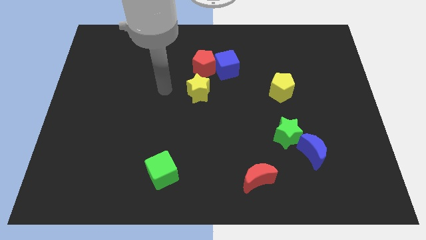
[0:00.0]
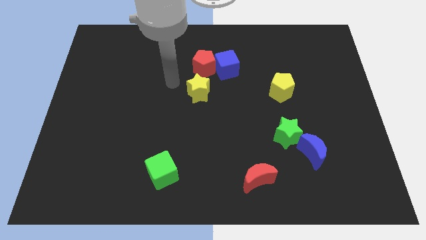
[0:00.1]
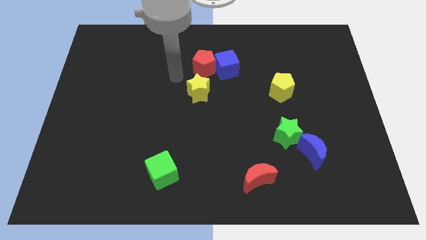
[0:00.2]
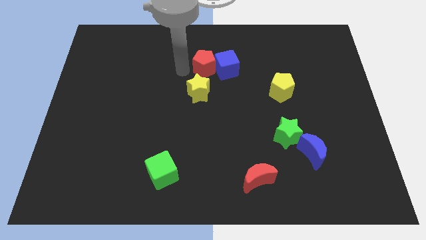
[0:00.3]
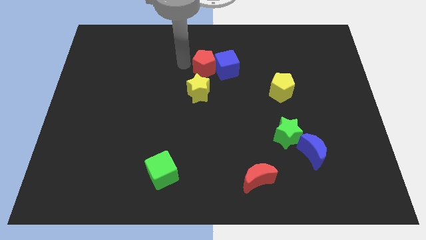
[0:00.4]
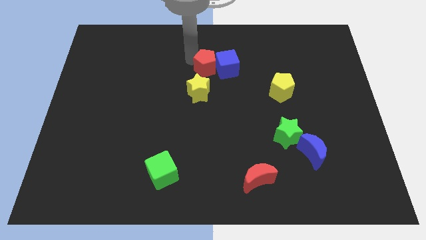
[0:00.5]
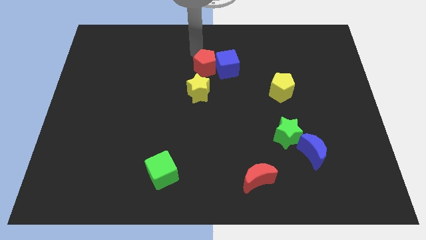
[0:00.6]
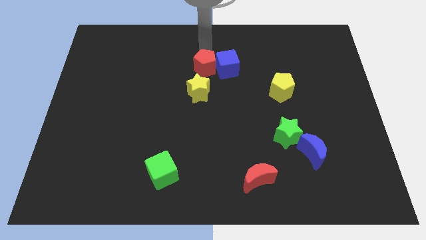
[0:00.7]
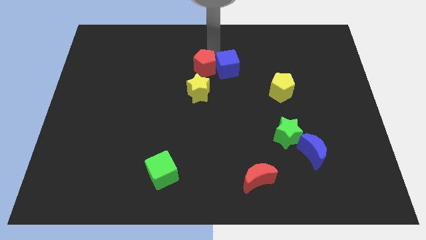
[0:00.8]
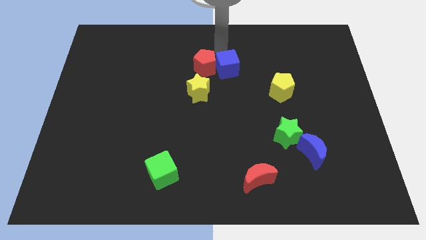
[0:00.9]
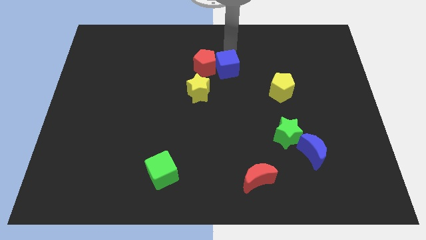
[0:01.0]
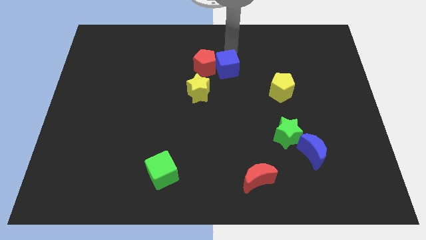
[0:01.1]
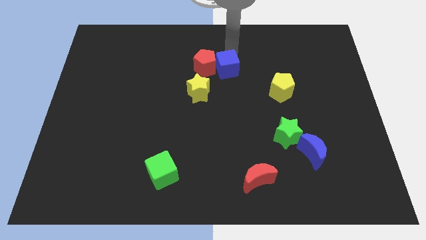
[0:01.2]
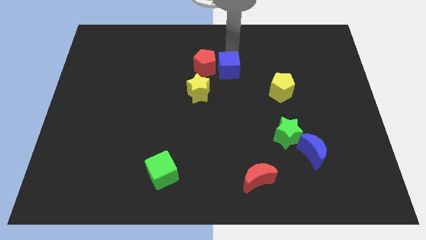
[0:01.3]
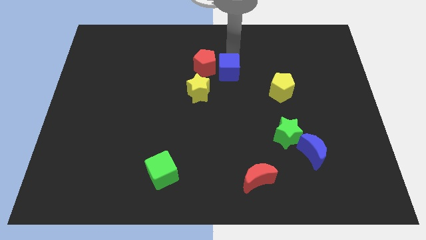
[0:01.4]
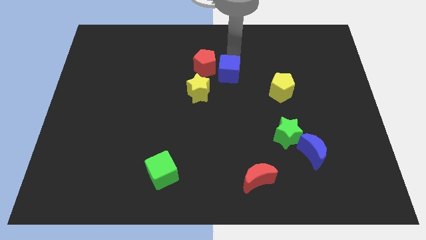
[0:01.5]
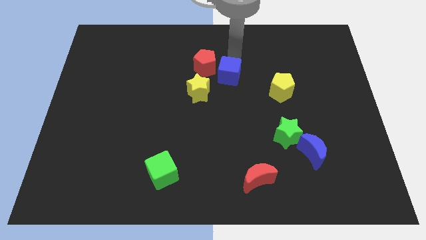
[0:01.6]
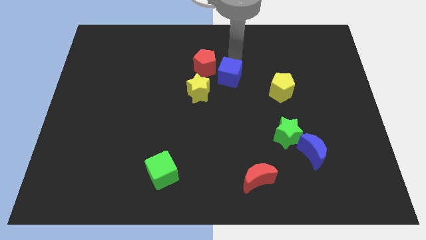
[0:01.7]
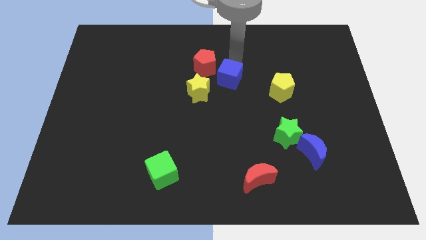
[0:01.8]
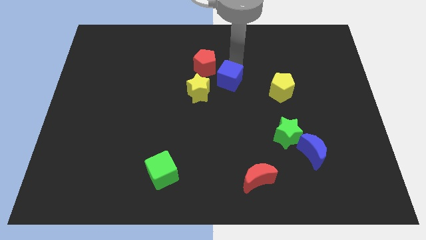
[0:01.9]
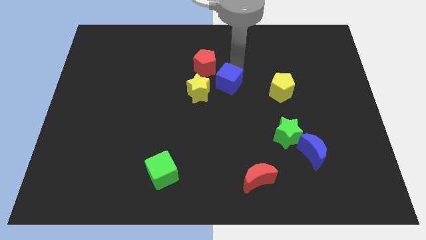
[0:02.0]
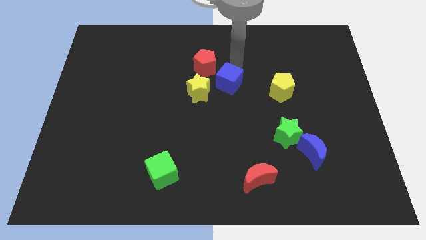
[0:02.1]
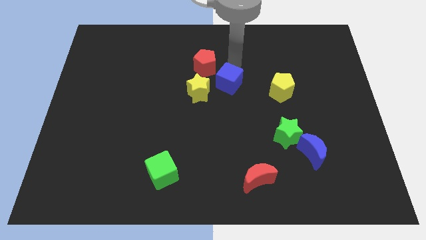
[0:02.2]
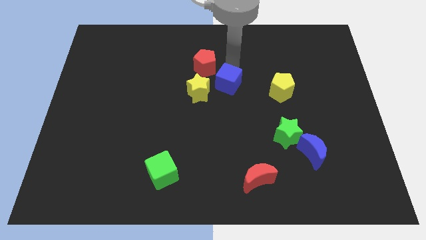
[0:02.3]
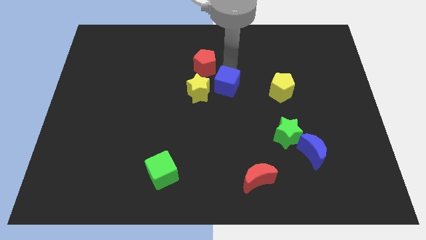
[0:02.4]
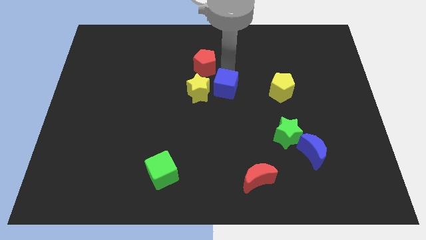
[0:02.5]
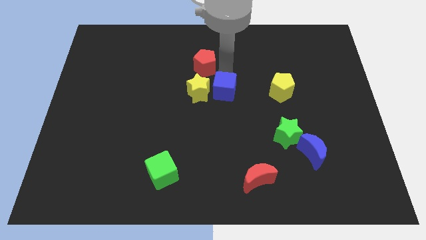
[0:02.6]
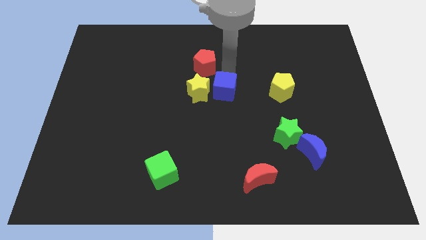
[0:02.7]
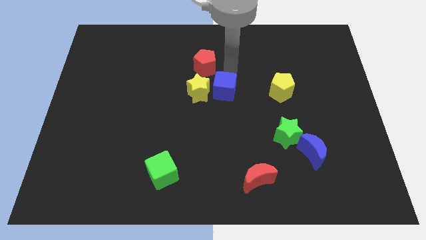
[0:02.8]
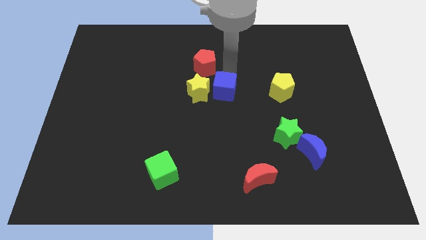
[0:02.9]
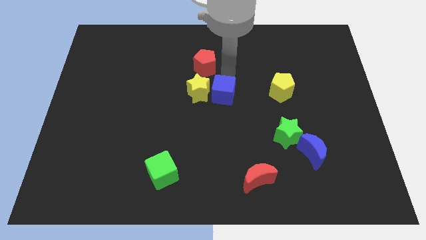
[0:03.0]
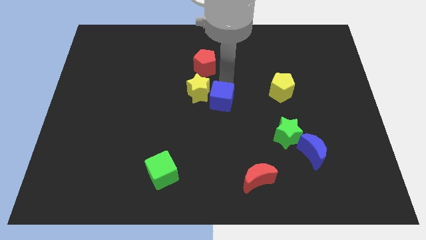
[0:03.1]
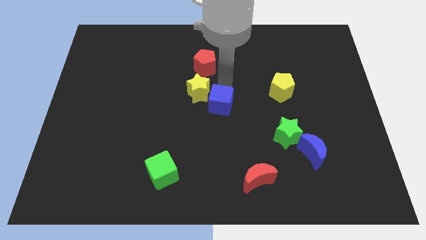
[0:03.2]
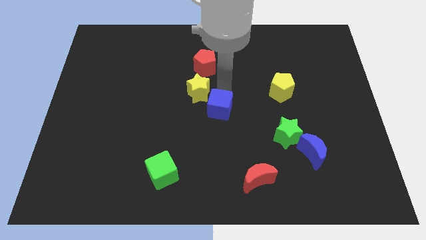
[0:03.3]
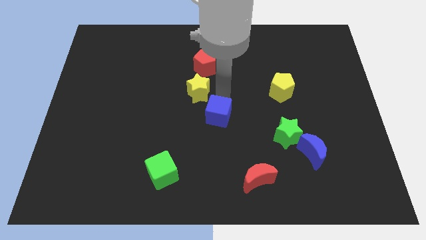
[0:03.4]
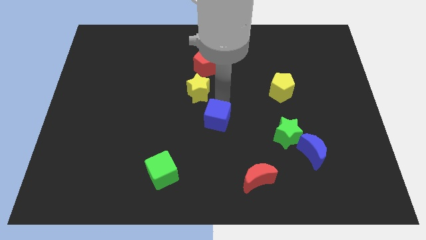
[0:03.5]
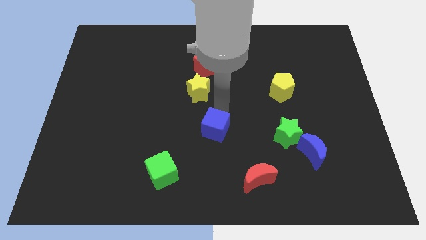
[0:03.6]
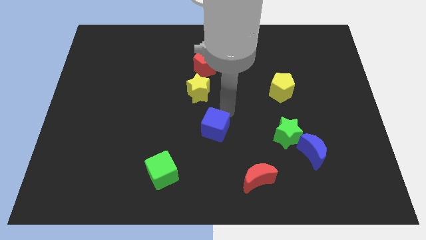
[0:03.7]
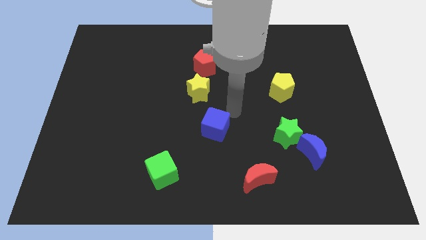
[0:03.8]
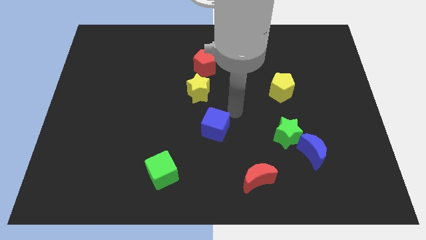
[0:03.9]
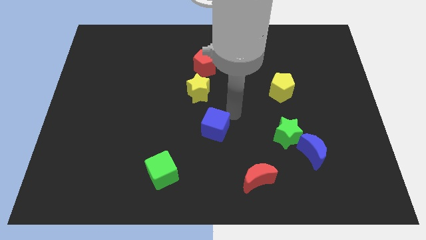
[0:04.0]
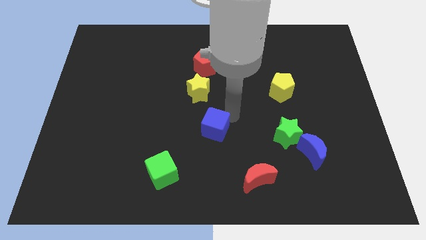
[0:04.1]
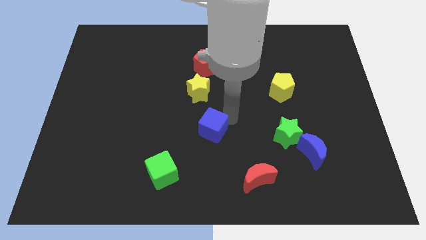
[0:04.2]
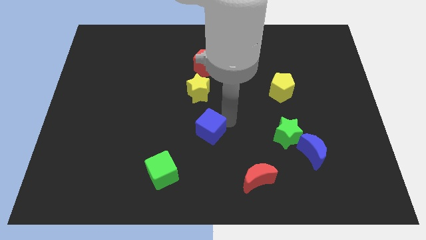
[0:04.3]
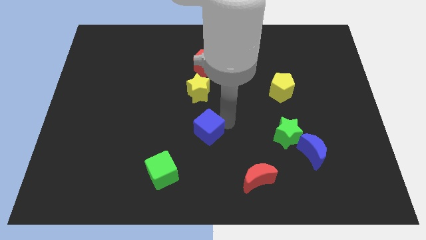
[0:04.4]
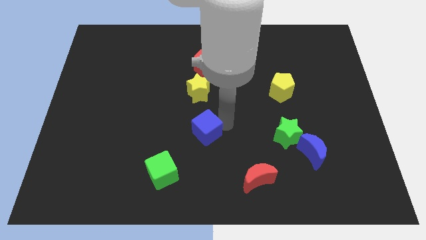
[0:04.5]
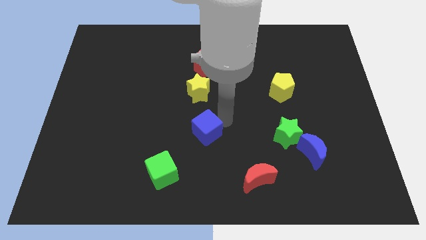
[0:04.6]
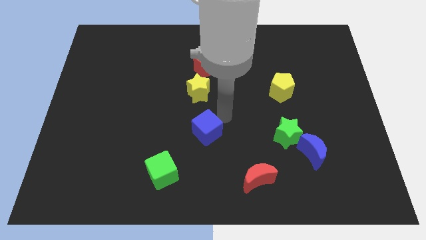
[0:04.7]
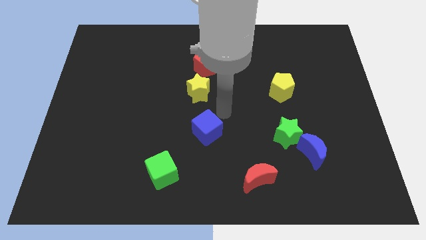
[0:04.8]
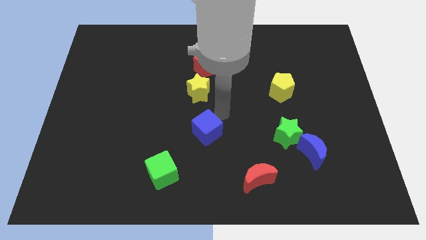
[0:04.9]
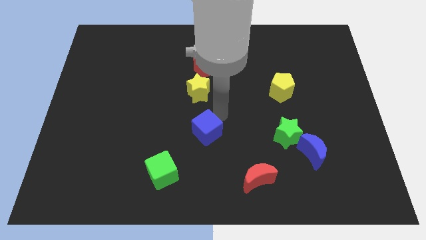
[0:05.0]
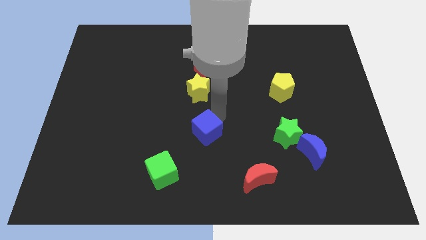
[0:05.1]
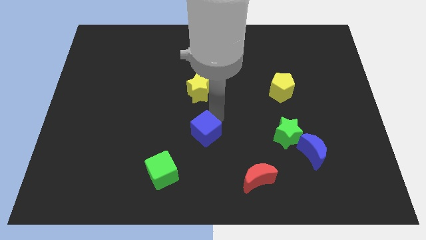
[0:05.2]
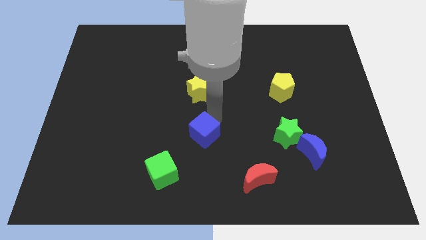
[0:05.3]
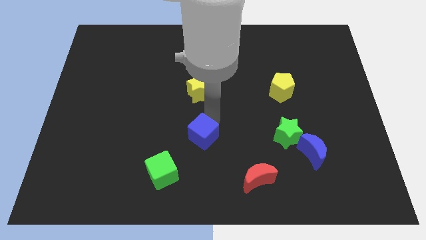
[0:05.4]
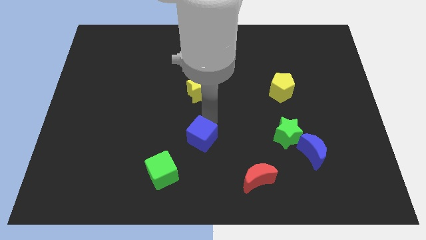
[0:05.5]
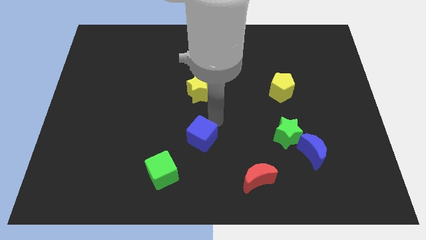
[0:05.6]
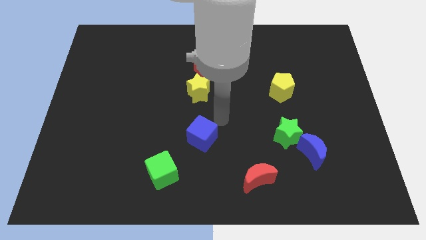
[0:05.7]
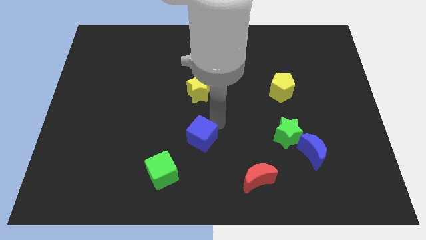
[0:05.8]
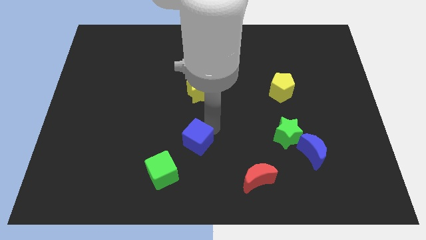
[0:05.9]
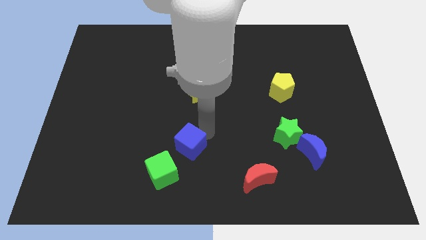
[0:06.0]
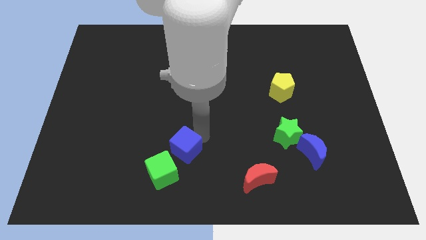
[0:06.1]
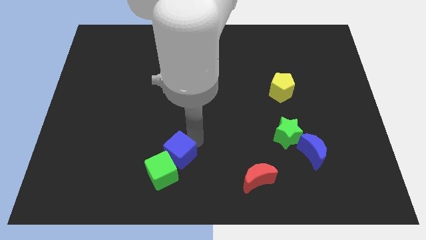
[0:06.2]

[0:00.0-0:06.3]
move the blue cube close to the green cube

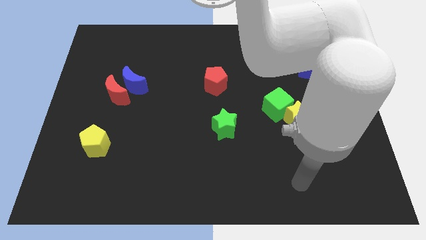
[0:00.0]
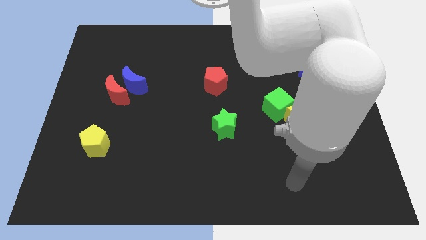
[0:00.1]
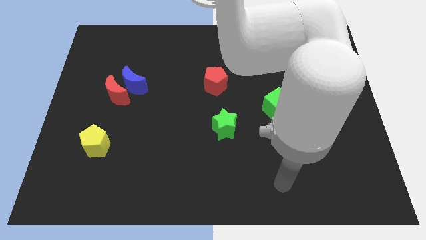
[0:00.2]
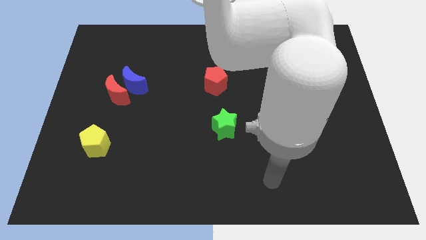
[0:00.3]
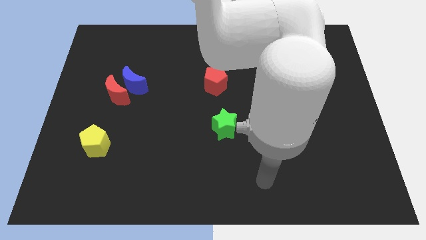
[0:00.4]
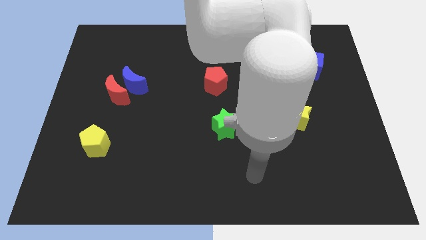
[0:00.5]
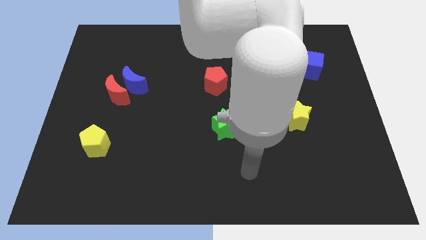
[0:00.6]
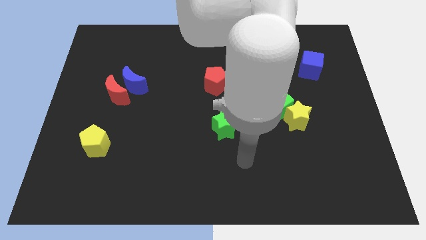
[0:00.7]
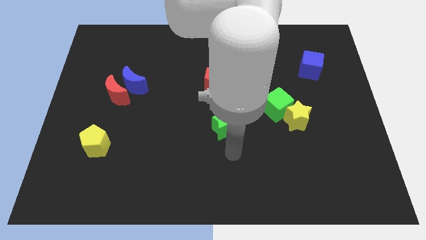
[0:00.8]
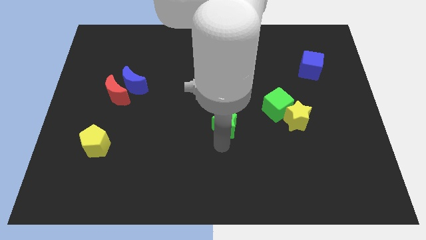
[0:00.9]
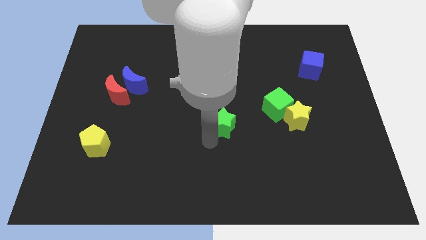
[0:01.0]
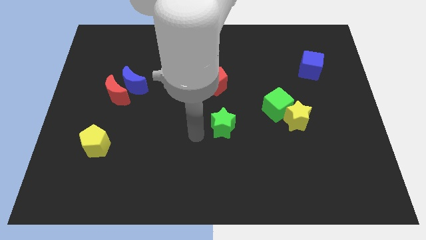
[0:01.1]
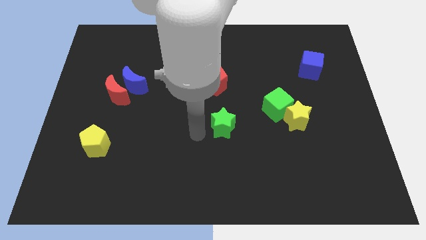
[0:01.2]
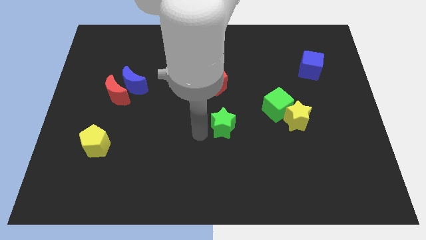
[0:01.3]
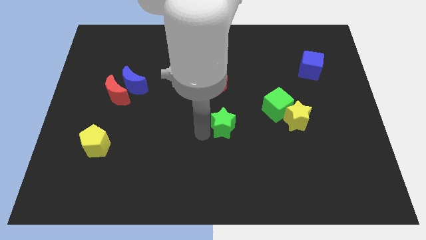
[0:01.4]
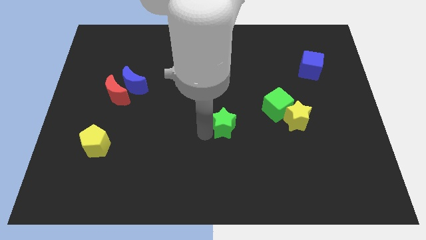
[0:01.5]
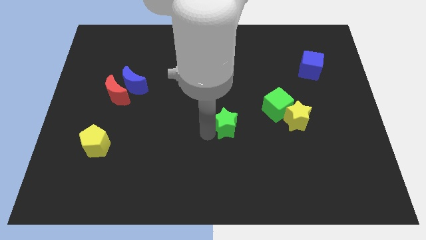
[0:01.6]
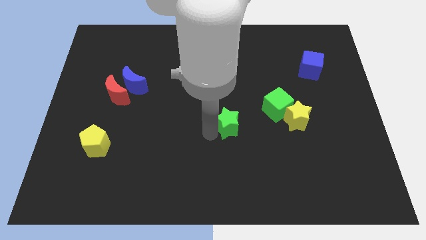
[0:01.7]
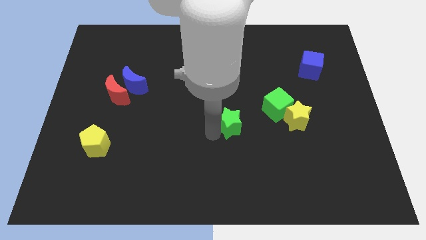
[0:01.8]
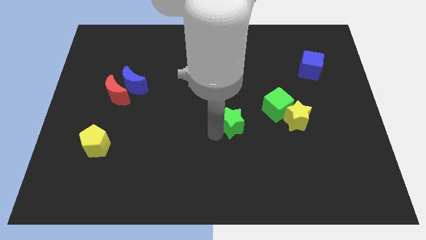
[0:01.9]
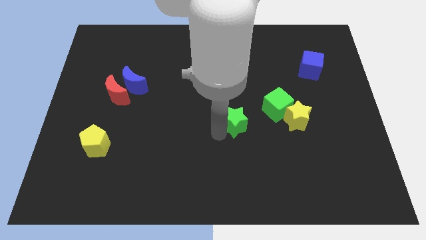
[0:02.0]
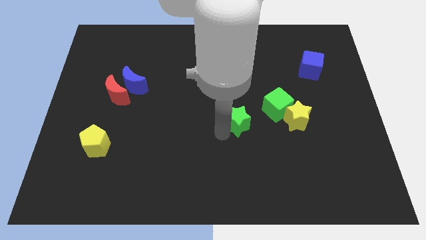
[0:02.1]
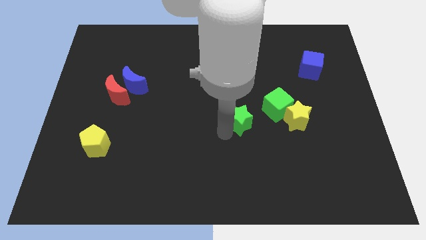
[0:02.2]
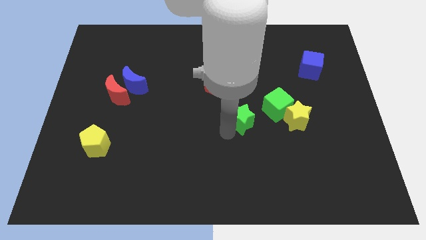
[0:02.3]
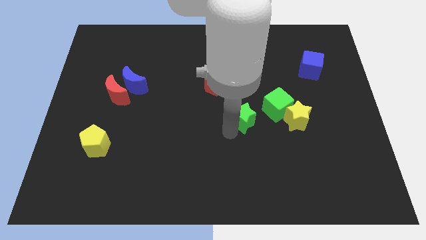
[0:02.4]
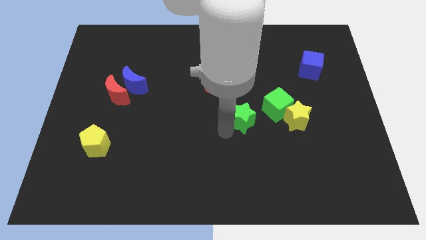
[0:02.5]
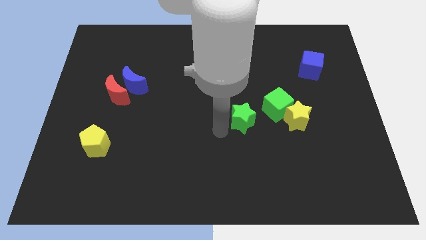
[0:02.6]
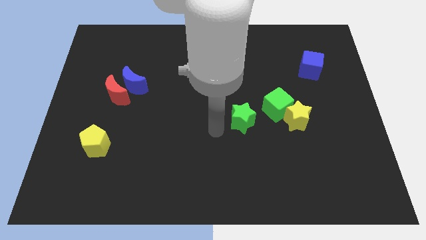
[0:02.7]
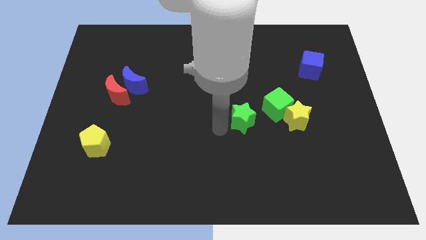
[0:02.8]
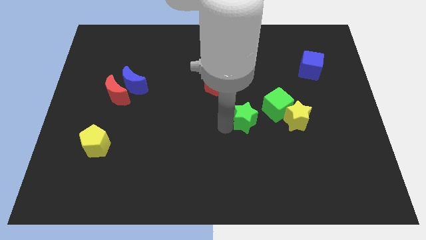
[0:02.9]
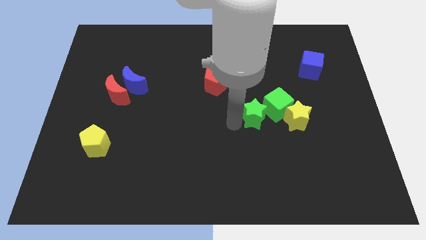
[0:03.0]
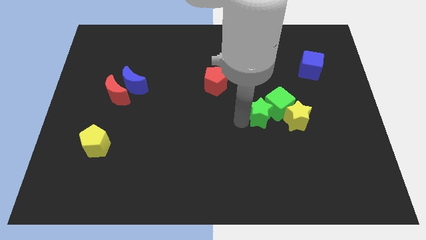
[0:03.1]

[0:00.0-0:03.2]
put the green star to the green cube
